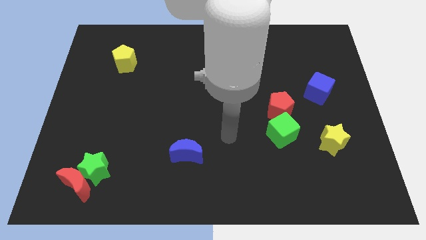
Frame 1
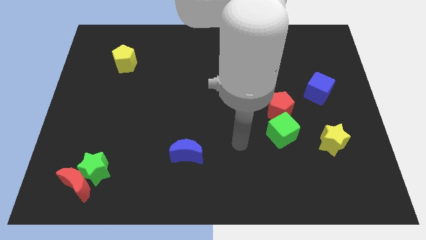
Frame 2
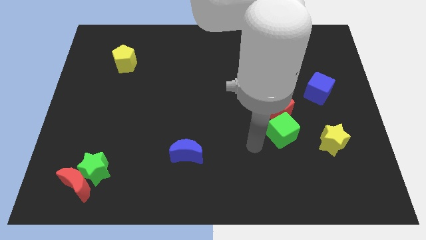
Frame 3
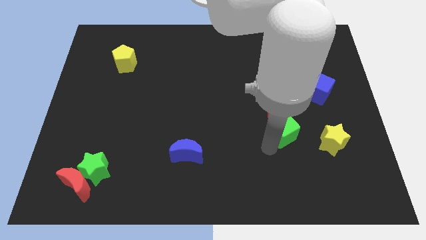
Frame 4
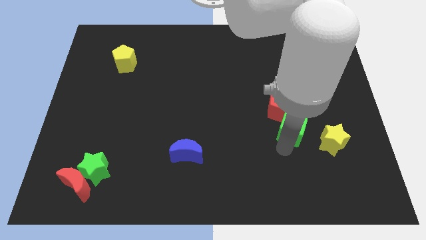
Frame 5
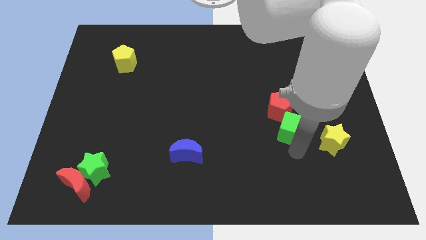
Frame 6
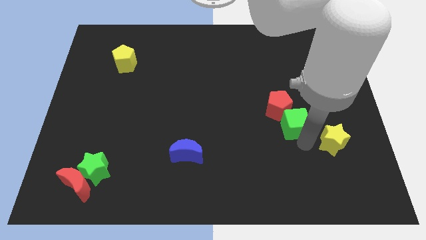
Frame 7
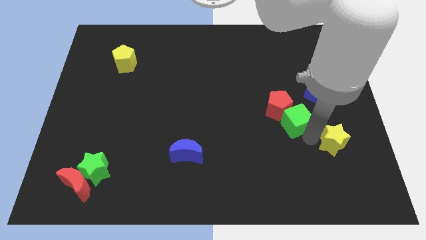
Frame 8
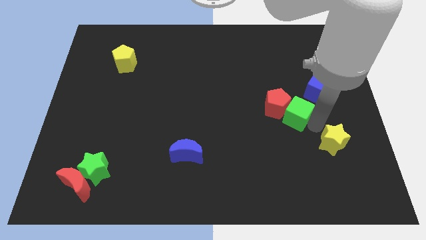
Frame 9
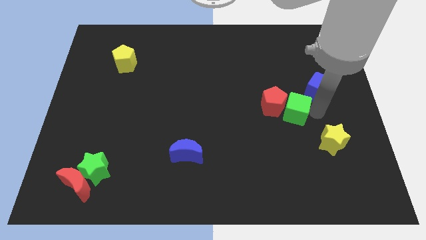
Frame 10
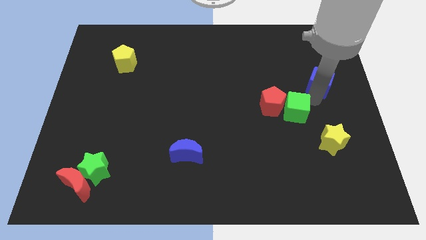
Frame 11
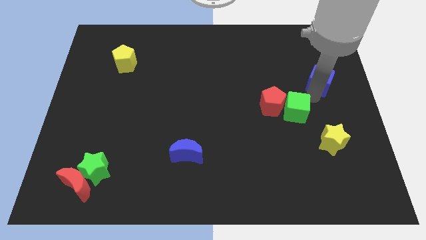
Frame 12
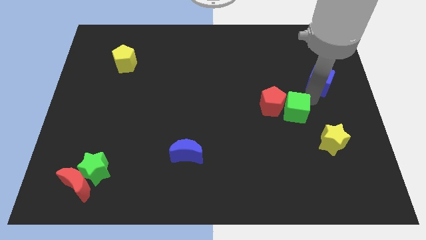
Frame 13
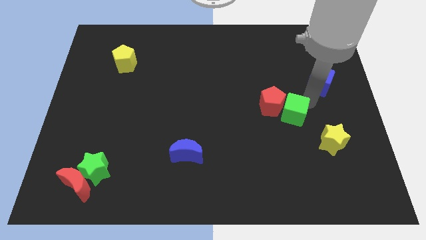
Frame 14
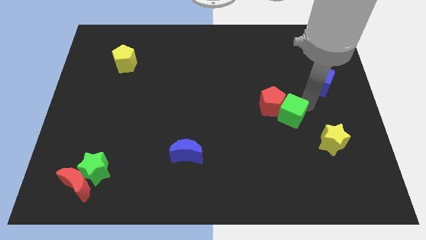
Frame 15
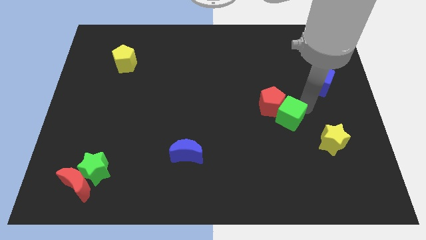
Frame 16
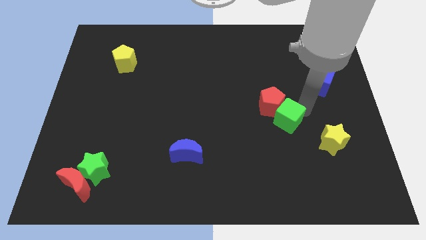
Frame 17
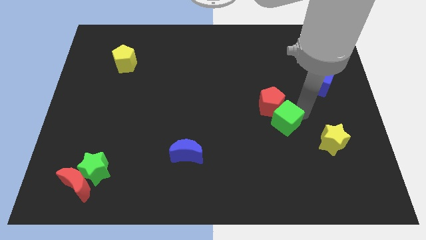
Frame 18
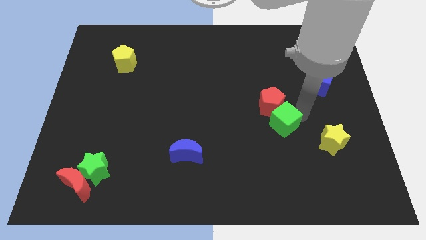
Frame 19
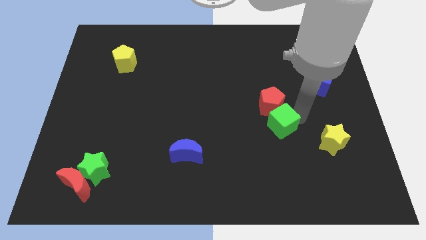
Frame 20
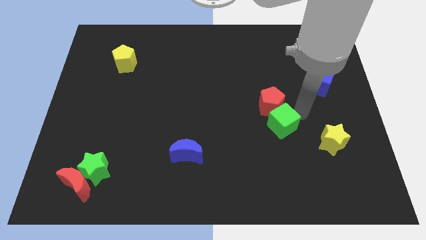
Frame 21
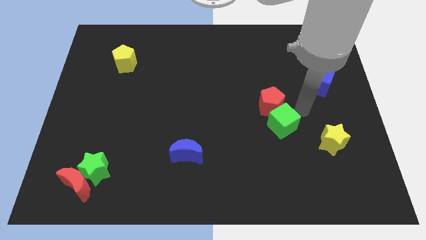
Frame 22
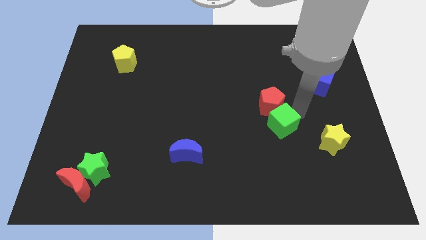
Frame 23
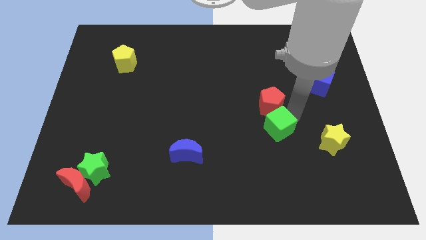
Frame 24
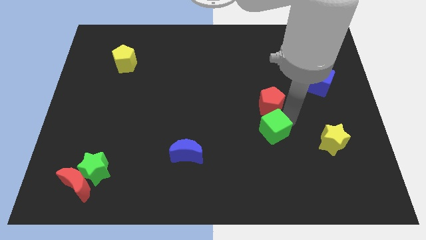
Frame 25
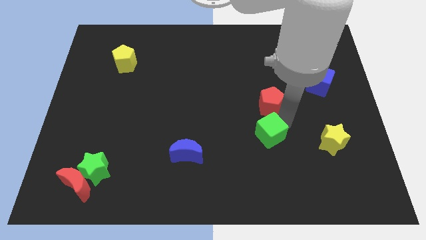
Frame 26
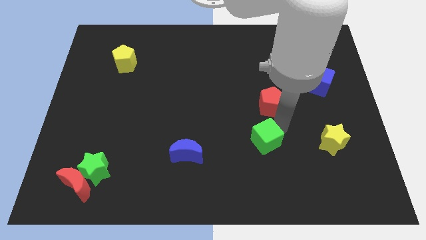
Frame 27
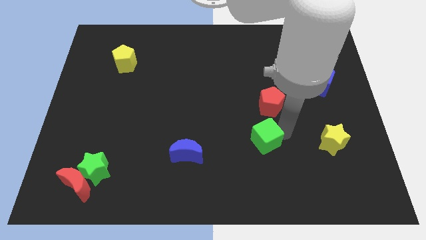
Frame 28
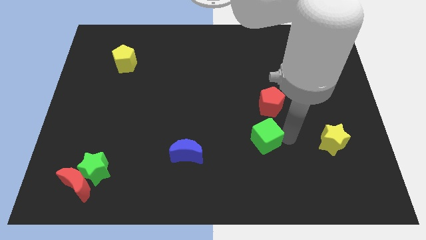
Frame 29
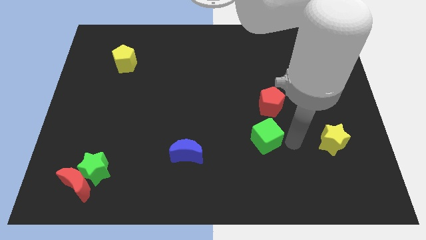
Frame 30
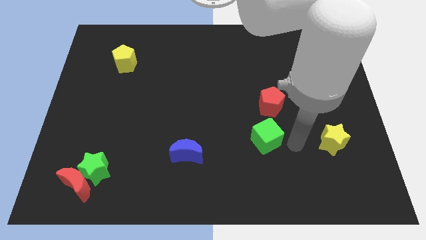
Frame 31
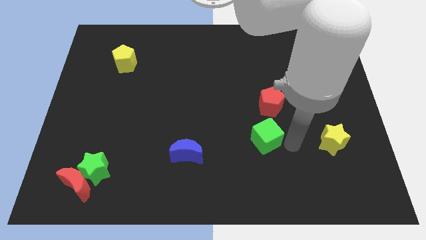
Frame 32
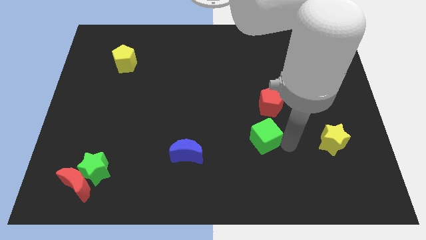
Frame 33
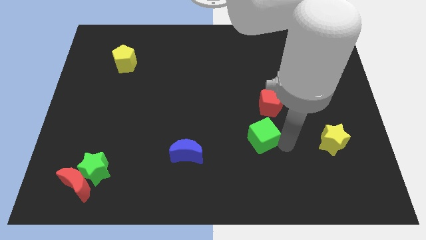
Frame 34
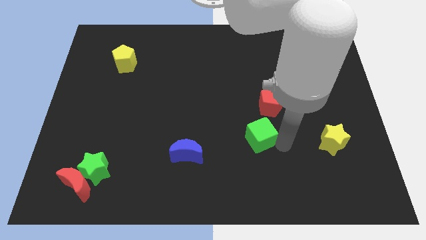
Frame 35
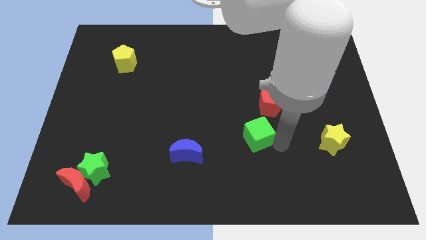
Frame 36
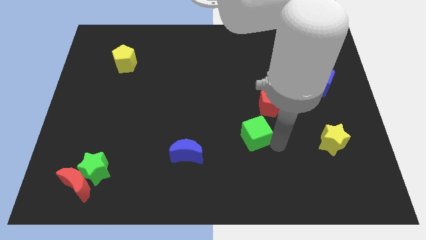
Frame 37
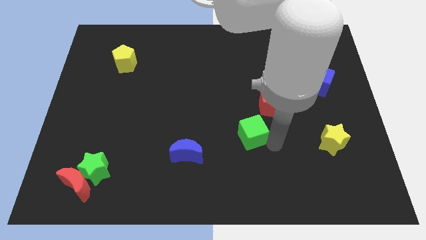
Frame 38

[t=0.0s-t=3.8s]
slightly move the green cube to the left

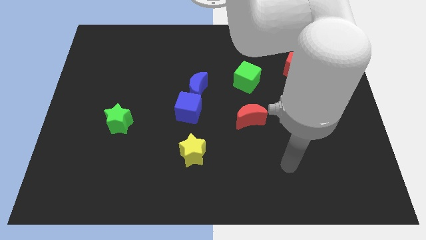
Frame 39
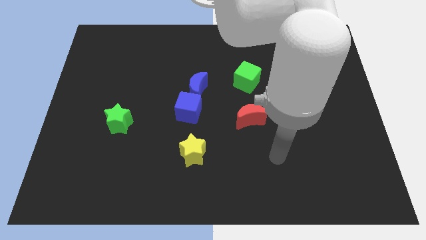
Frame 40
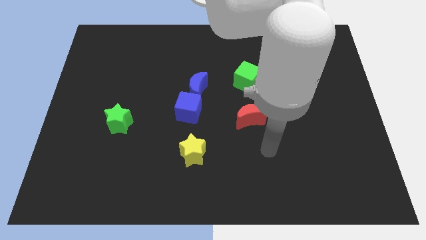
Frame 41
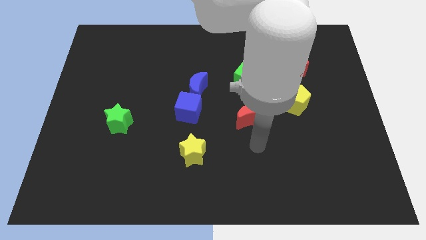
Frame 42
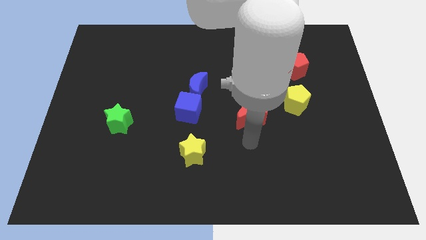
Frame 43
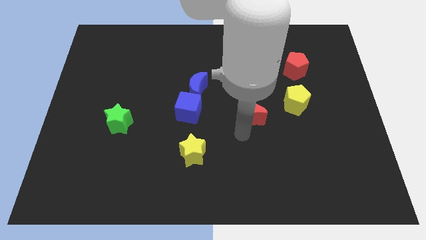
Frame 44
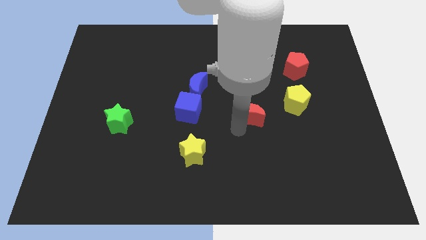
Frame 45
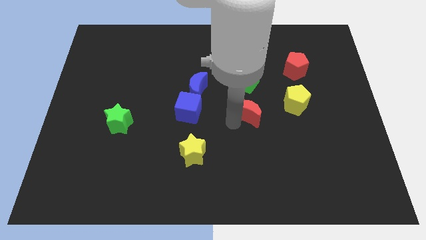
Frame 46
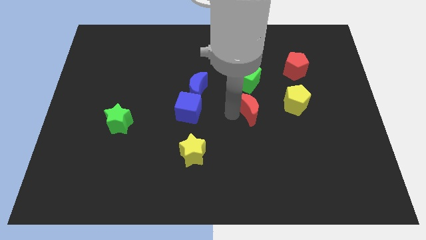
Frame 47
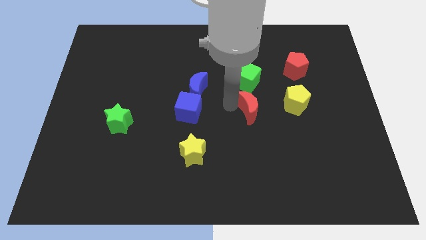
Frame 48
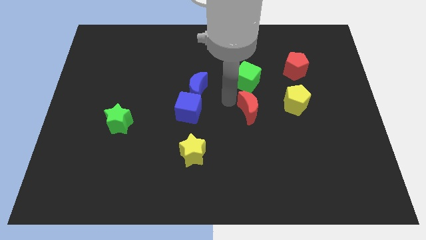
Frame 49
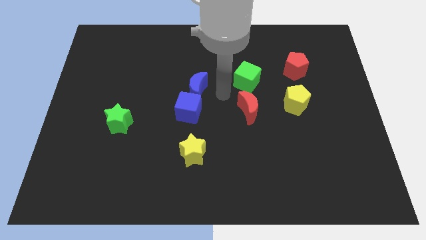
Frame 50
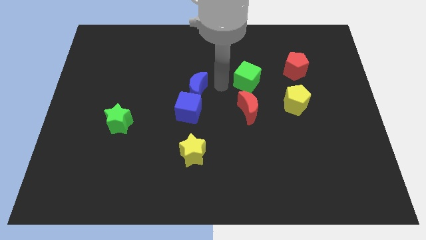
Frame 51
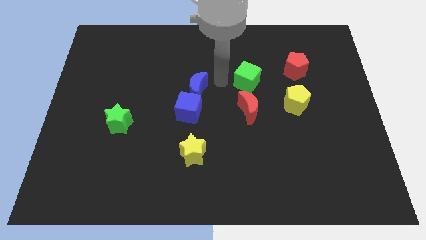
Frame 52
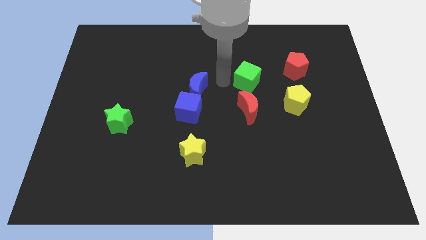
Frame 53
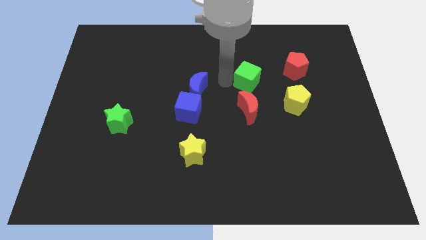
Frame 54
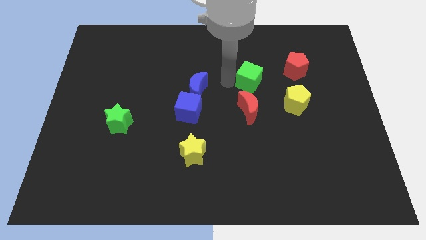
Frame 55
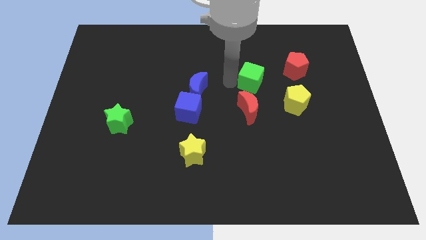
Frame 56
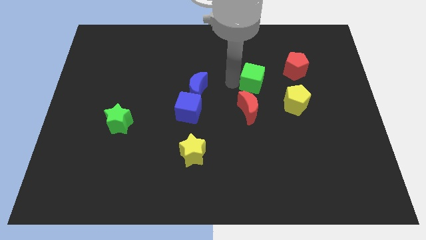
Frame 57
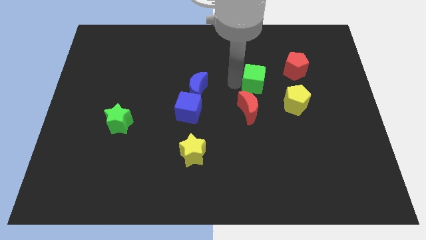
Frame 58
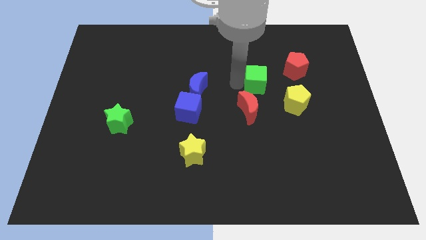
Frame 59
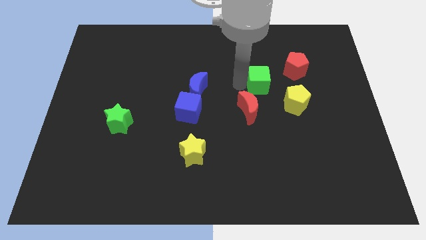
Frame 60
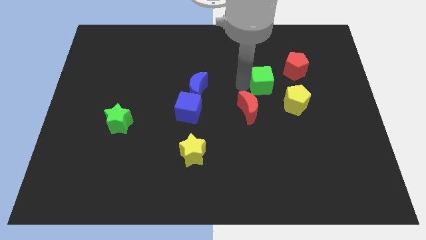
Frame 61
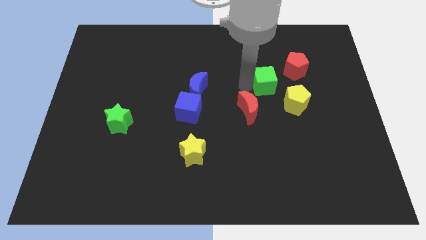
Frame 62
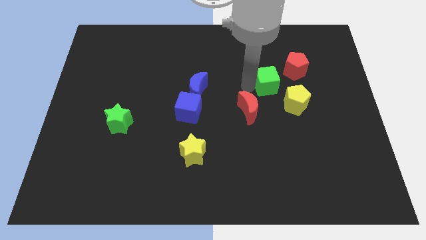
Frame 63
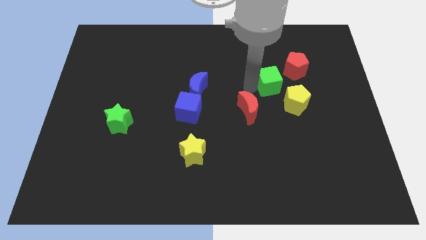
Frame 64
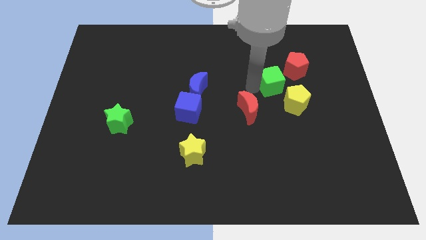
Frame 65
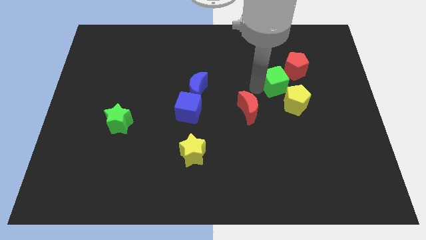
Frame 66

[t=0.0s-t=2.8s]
push the green cube somewhat to the right

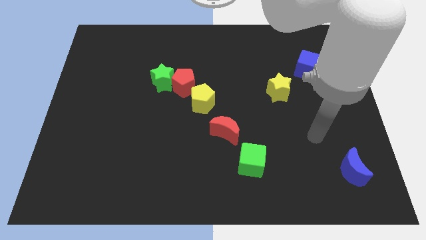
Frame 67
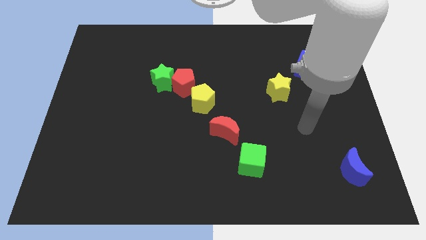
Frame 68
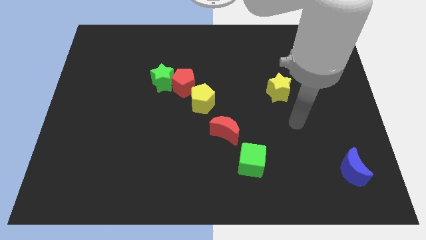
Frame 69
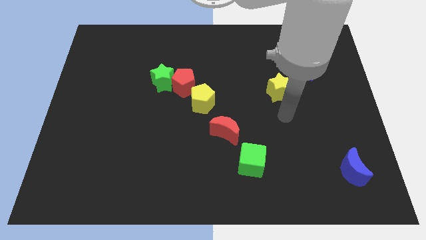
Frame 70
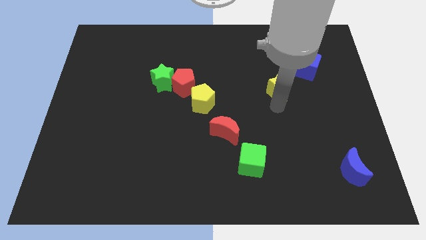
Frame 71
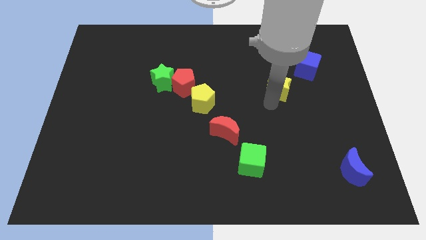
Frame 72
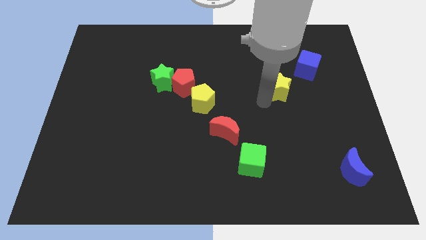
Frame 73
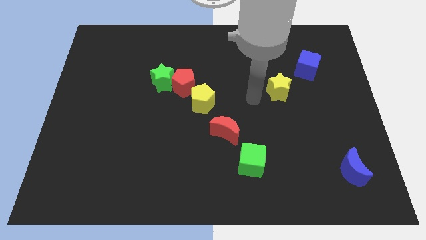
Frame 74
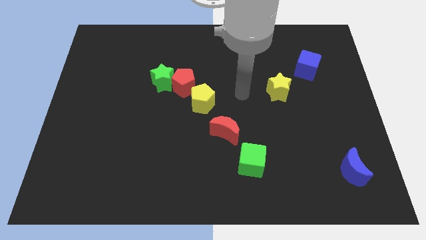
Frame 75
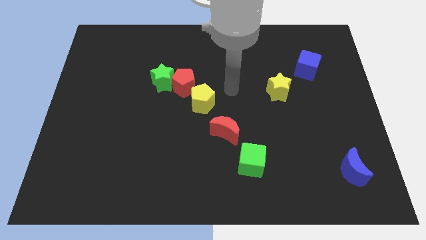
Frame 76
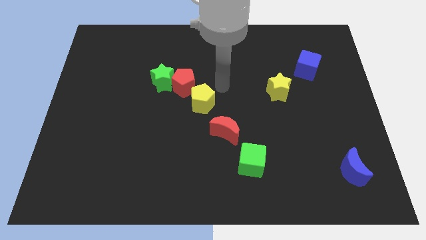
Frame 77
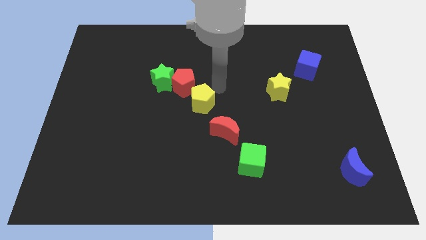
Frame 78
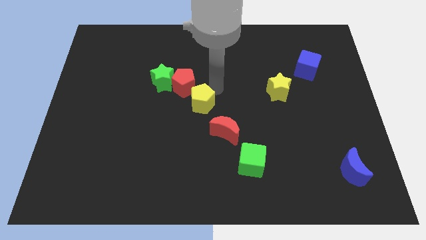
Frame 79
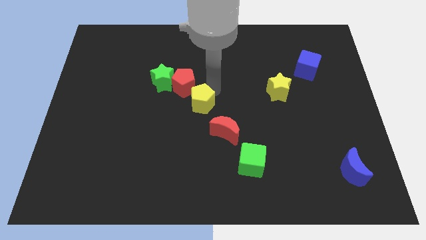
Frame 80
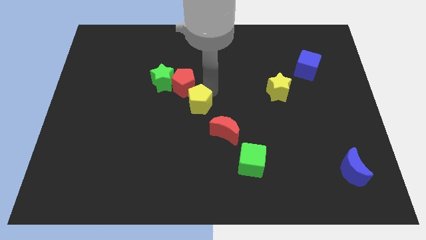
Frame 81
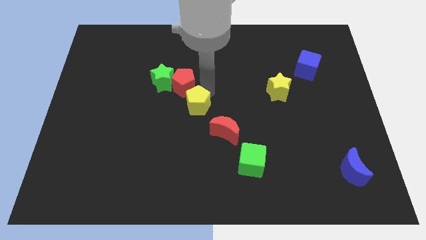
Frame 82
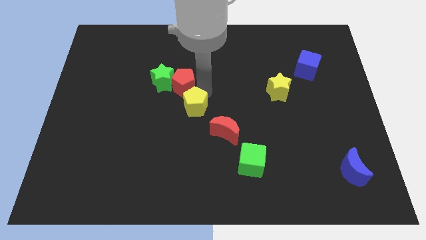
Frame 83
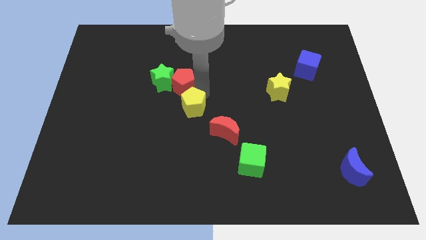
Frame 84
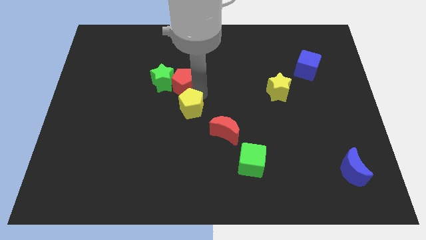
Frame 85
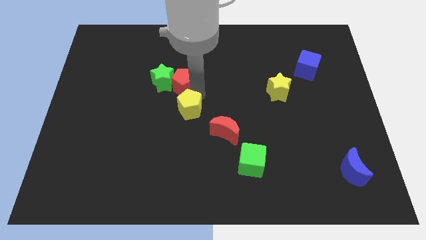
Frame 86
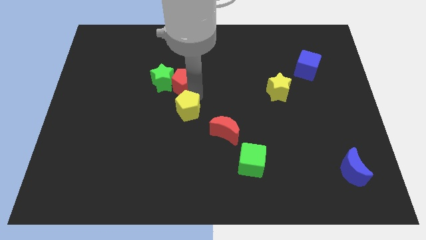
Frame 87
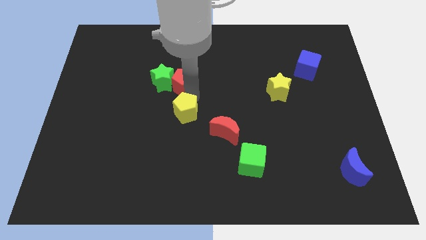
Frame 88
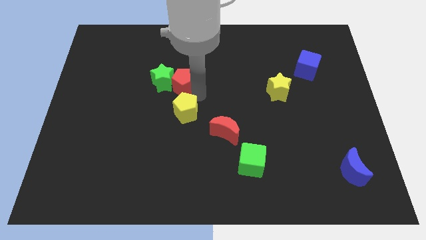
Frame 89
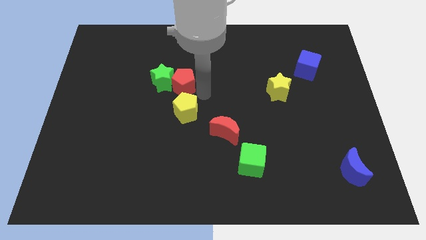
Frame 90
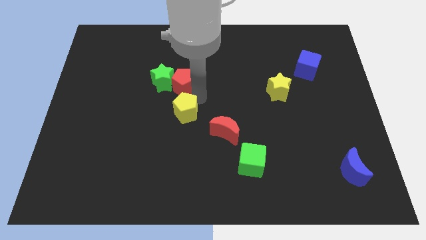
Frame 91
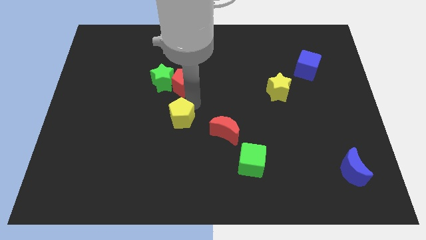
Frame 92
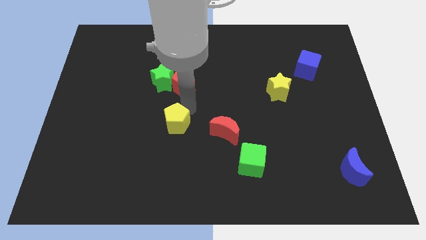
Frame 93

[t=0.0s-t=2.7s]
move the yellow pentagon diagonally downwards and to the left a little bit
